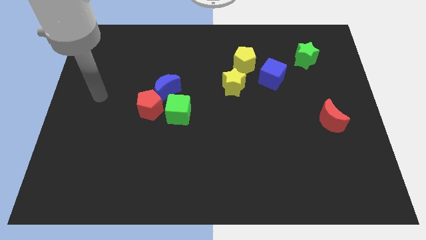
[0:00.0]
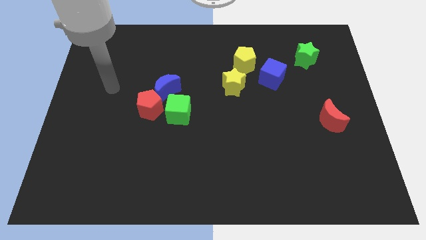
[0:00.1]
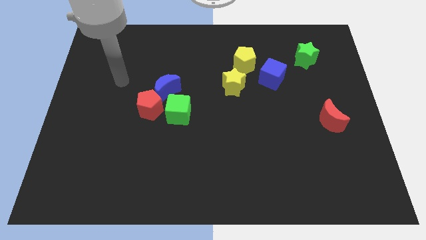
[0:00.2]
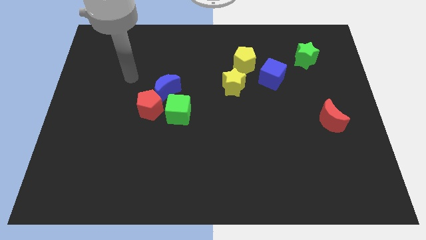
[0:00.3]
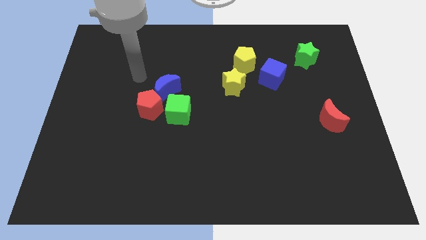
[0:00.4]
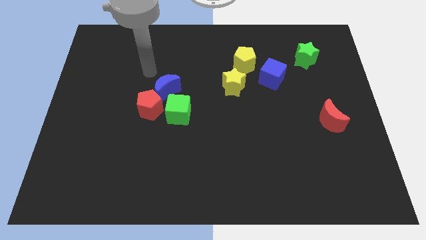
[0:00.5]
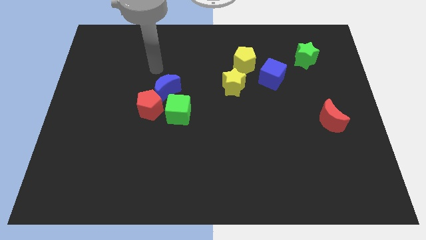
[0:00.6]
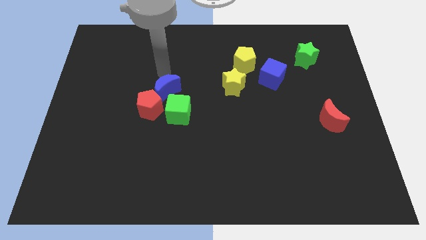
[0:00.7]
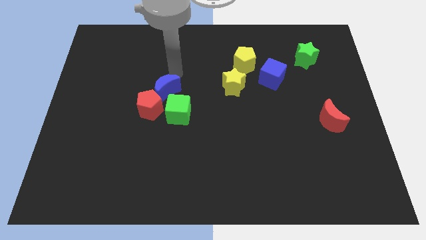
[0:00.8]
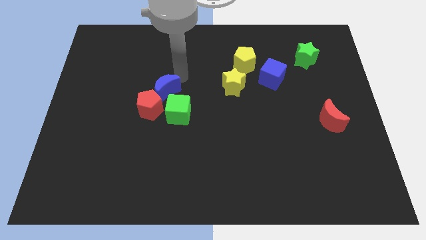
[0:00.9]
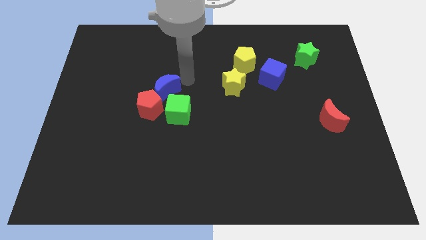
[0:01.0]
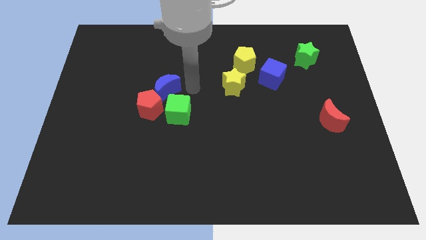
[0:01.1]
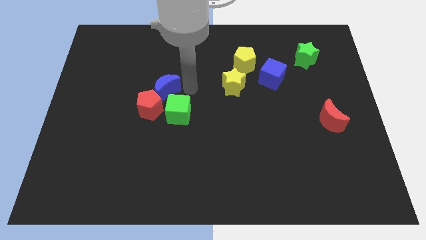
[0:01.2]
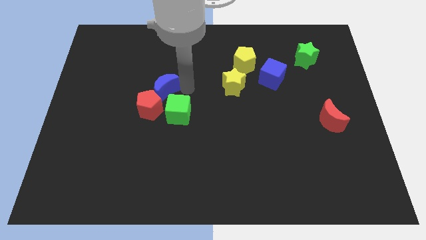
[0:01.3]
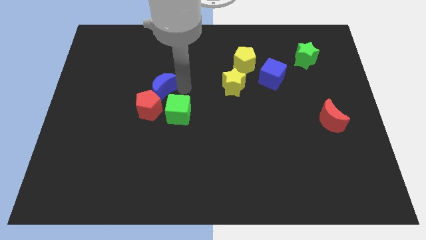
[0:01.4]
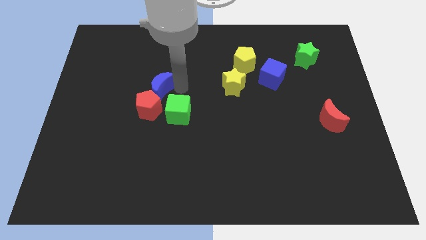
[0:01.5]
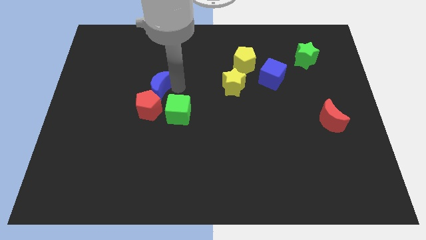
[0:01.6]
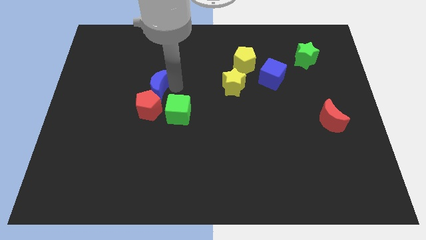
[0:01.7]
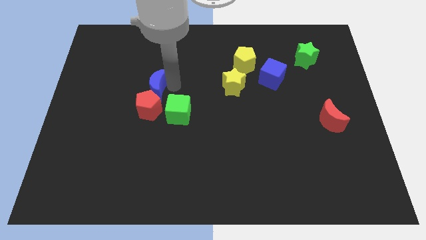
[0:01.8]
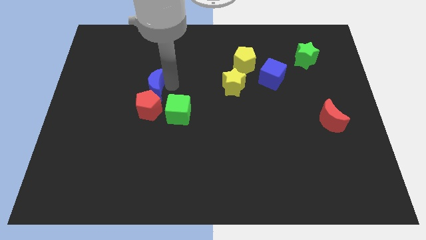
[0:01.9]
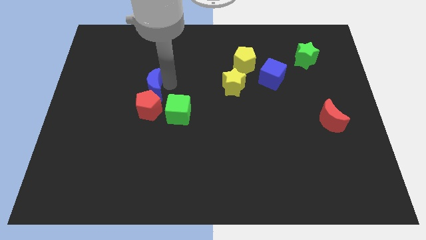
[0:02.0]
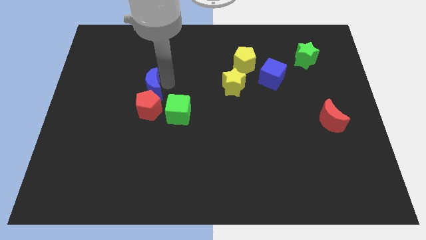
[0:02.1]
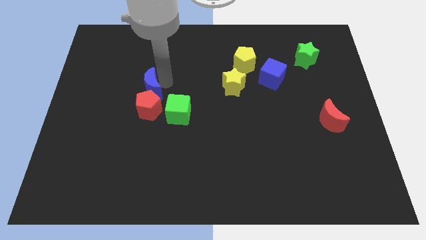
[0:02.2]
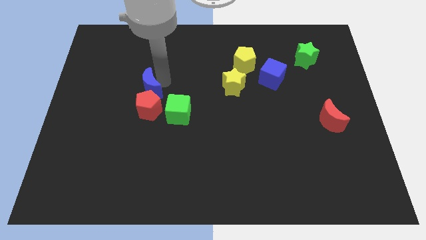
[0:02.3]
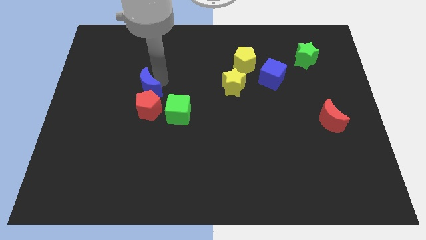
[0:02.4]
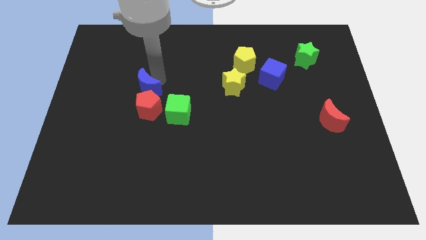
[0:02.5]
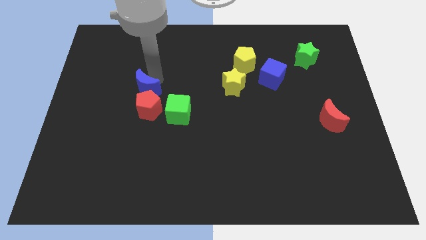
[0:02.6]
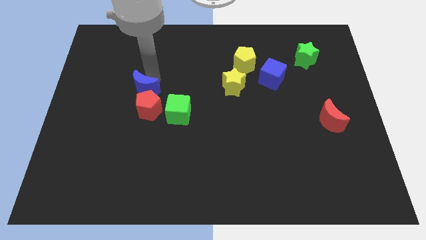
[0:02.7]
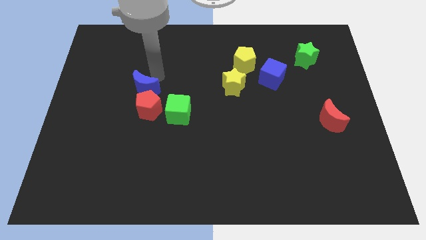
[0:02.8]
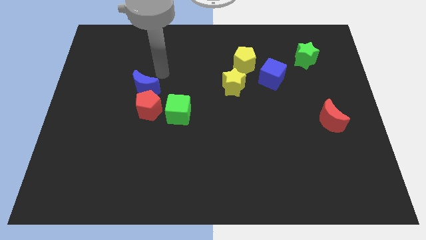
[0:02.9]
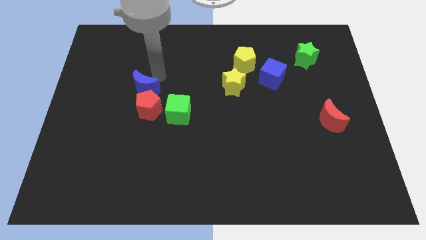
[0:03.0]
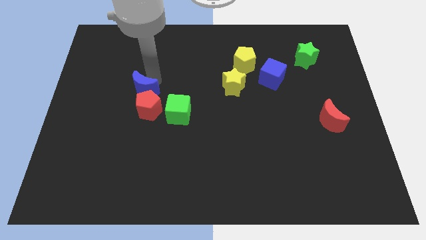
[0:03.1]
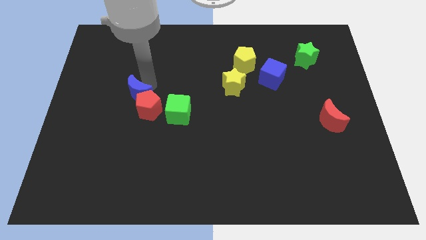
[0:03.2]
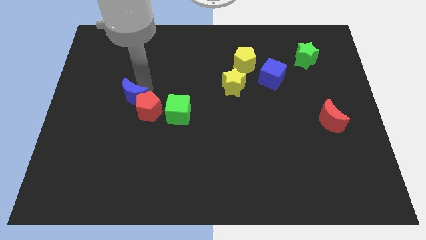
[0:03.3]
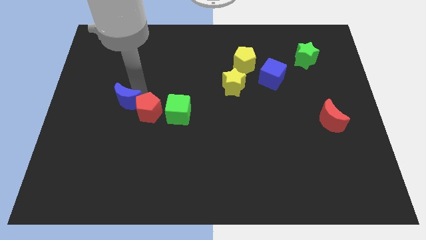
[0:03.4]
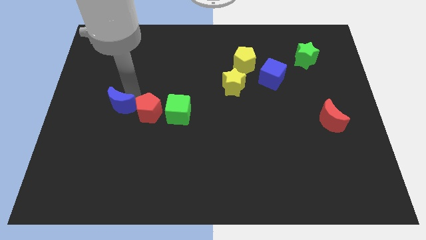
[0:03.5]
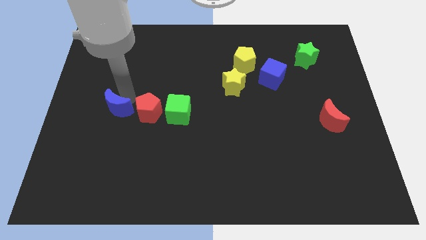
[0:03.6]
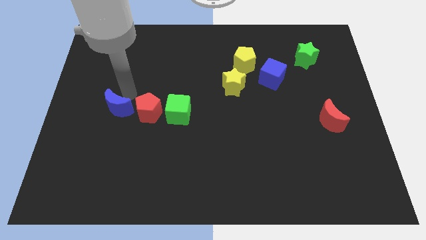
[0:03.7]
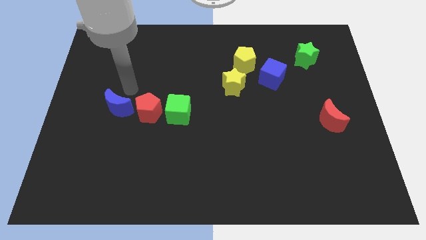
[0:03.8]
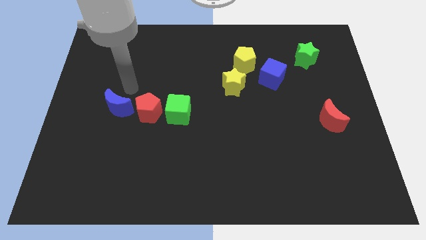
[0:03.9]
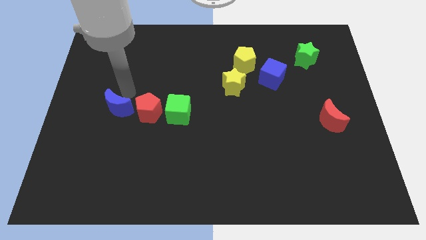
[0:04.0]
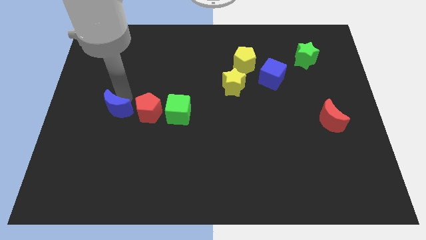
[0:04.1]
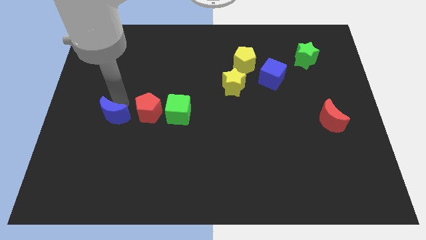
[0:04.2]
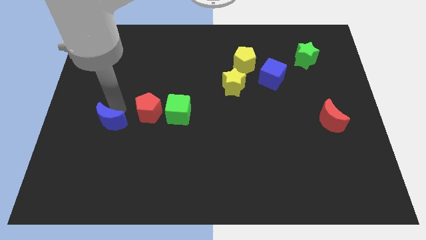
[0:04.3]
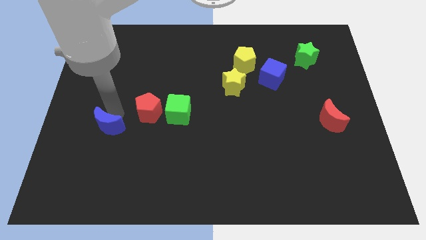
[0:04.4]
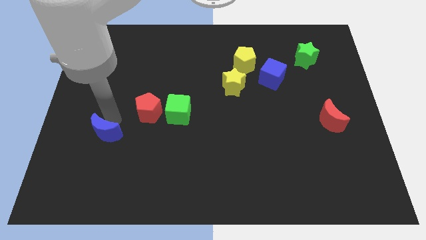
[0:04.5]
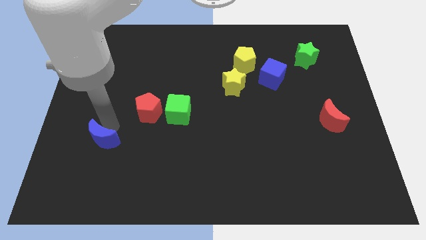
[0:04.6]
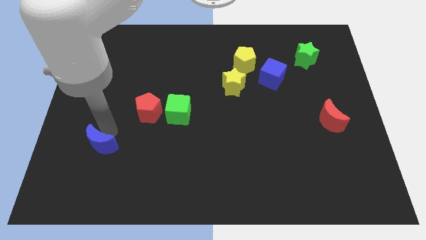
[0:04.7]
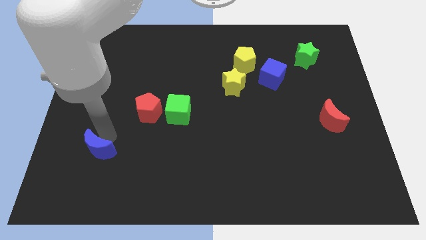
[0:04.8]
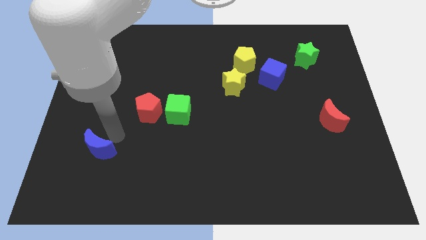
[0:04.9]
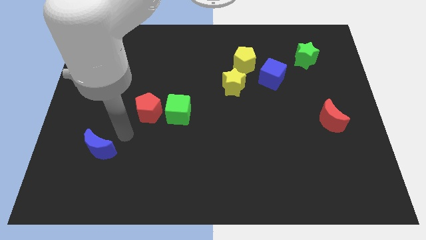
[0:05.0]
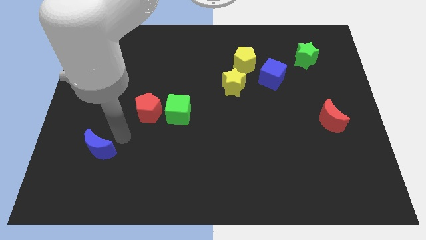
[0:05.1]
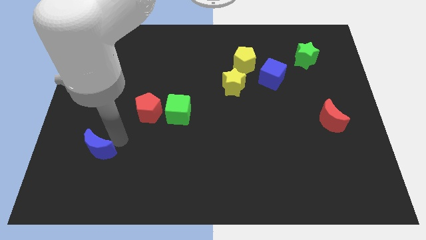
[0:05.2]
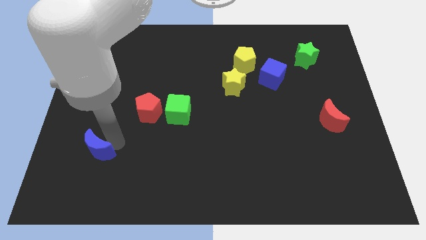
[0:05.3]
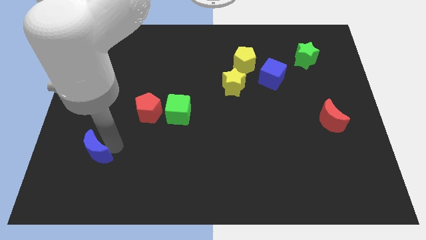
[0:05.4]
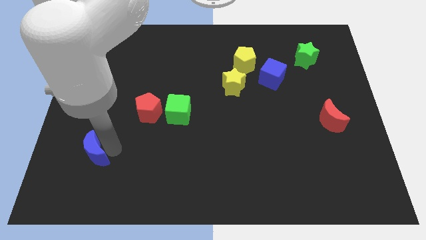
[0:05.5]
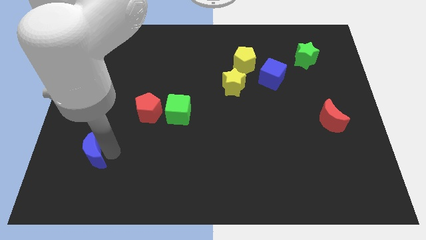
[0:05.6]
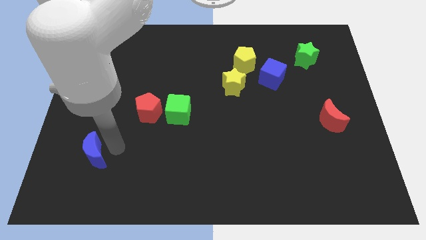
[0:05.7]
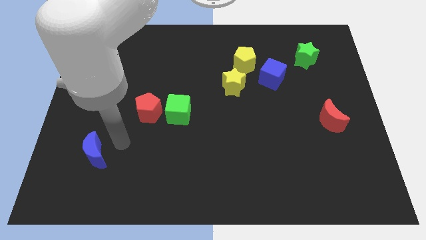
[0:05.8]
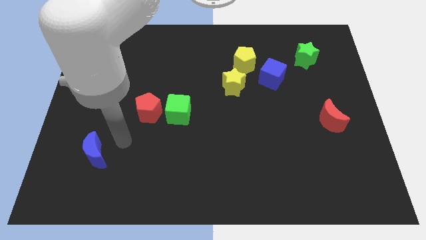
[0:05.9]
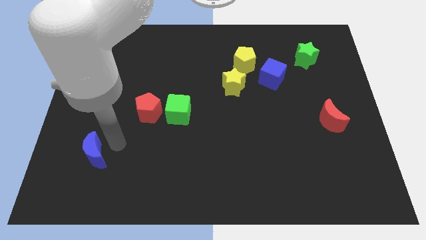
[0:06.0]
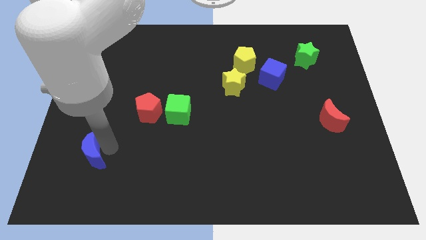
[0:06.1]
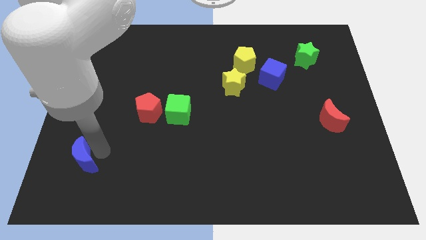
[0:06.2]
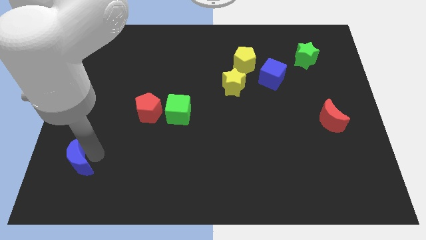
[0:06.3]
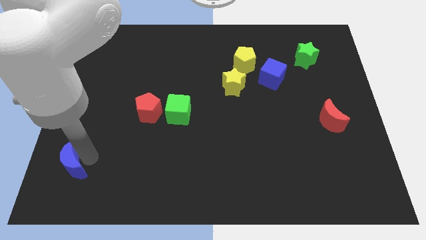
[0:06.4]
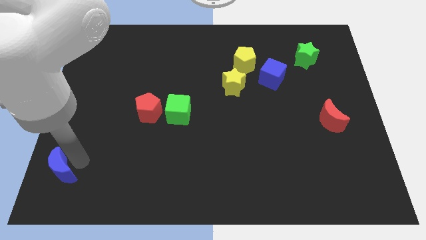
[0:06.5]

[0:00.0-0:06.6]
put the blue moon to the bottom left corner
